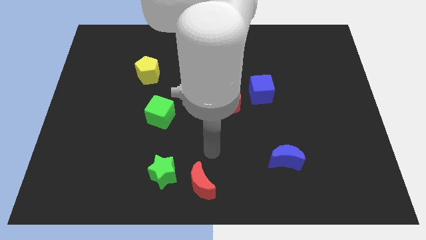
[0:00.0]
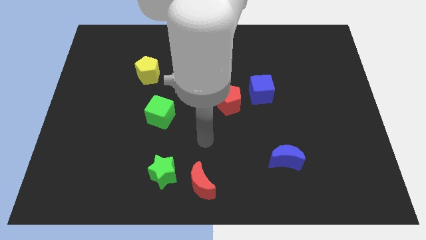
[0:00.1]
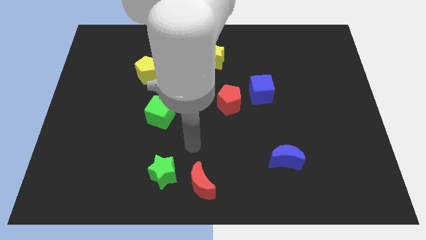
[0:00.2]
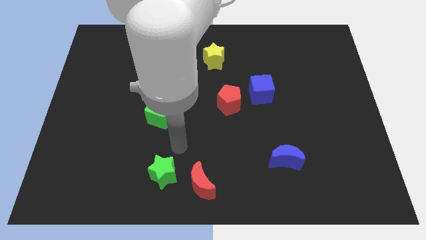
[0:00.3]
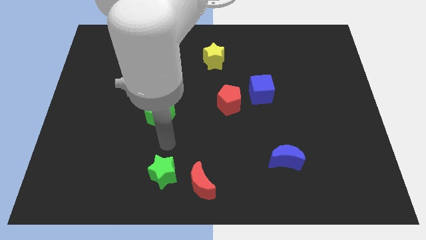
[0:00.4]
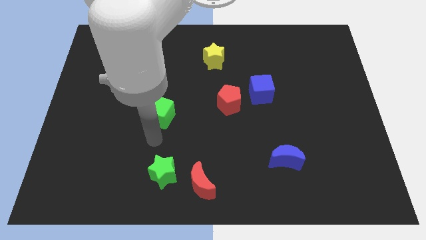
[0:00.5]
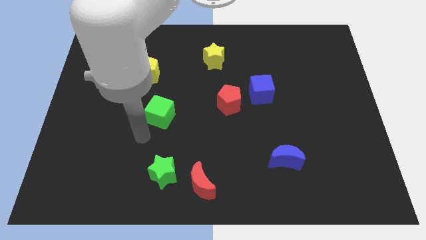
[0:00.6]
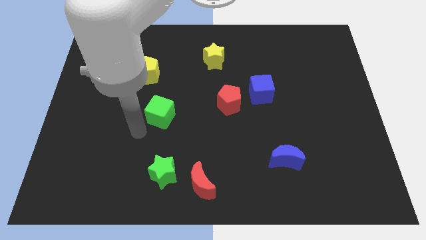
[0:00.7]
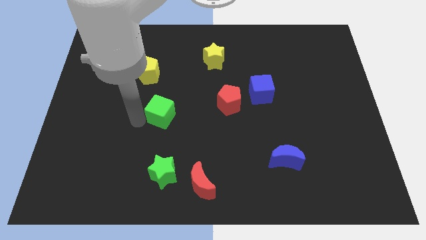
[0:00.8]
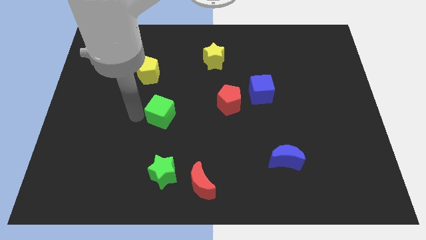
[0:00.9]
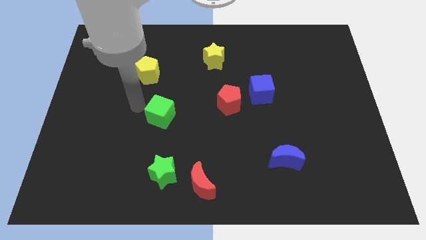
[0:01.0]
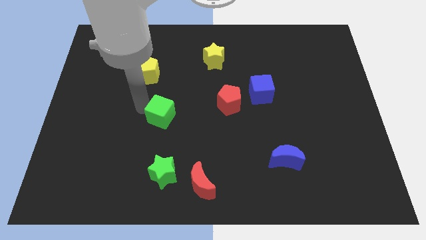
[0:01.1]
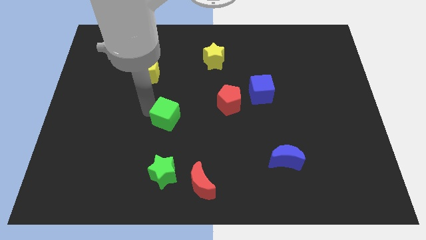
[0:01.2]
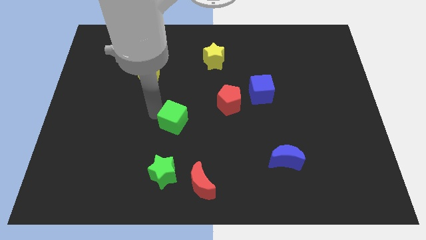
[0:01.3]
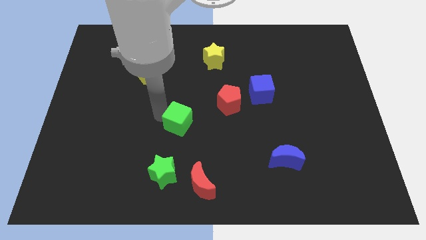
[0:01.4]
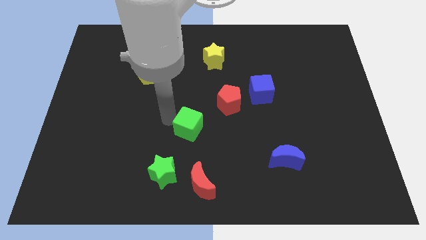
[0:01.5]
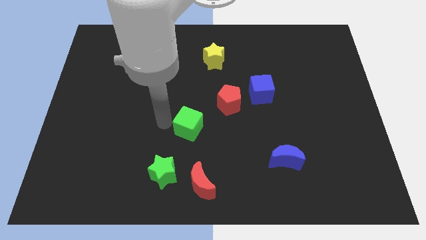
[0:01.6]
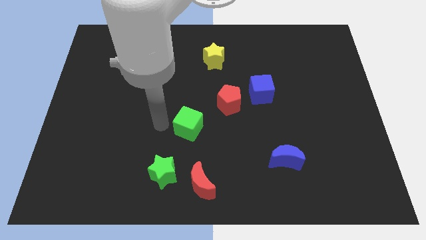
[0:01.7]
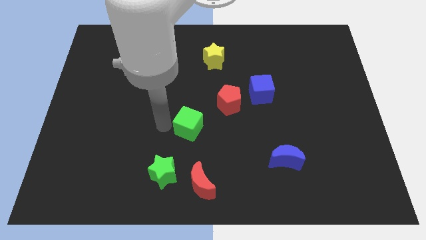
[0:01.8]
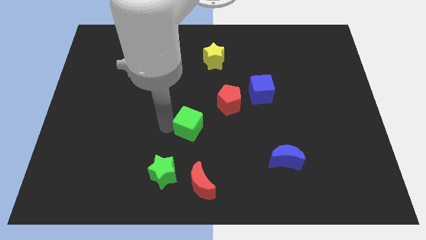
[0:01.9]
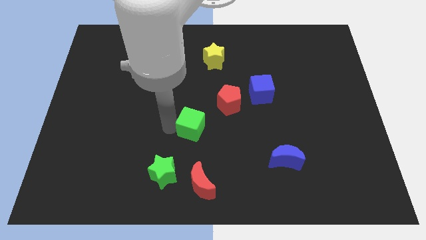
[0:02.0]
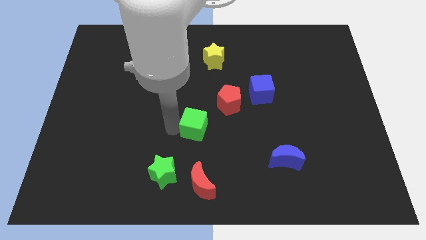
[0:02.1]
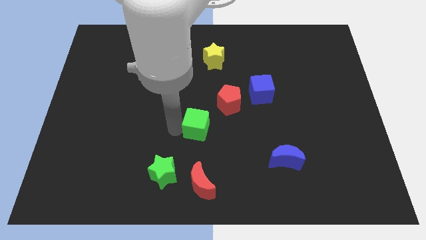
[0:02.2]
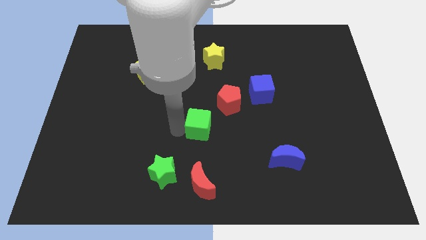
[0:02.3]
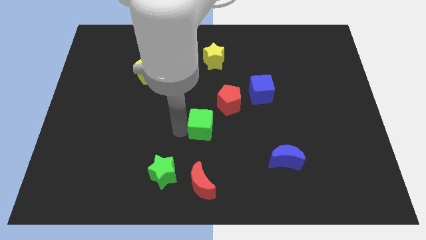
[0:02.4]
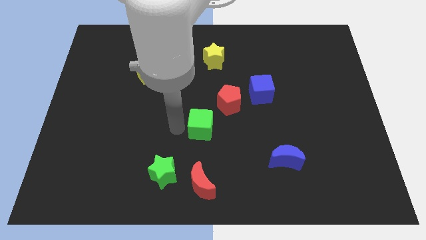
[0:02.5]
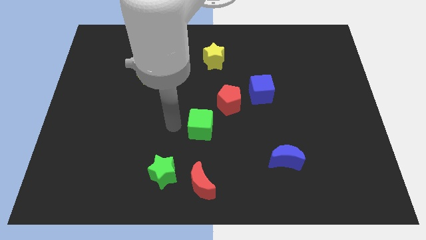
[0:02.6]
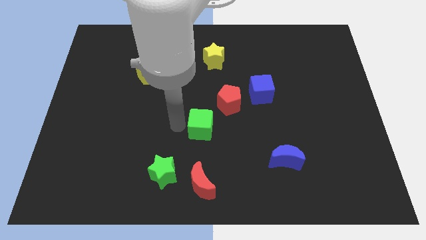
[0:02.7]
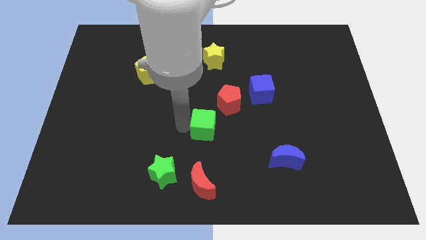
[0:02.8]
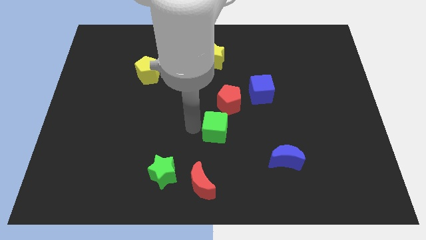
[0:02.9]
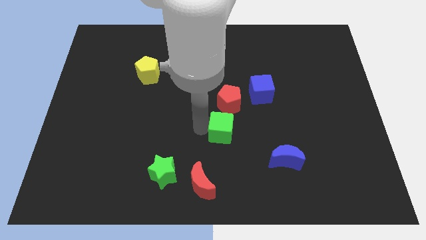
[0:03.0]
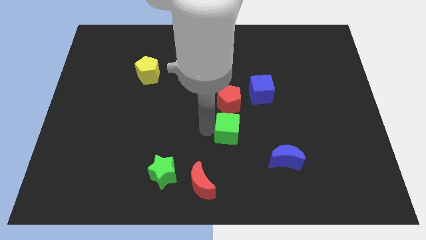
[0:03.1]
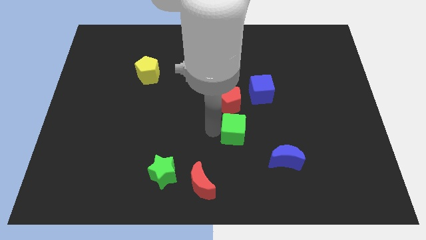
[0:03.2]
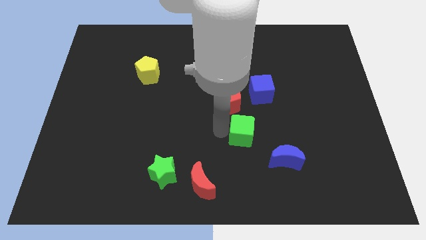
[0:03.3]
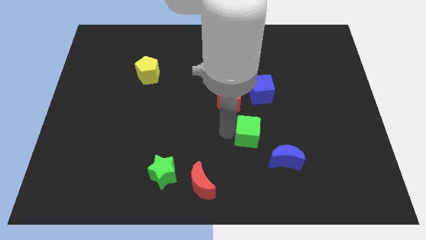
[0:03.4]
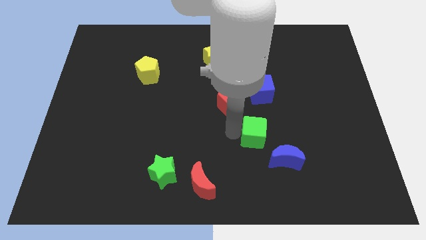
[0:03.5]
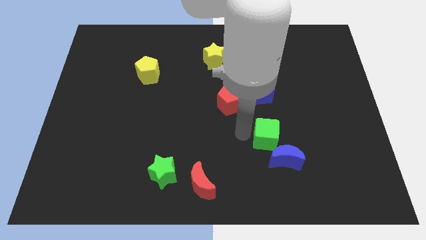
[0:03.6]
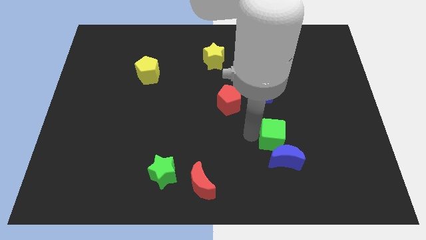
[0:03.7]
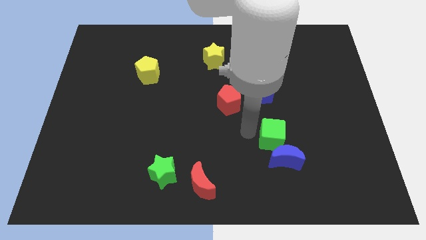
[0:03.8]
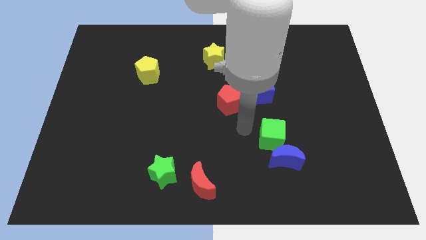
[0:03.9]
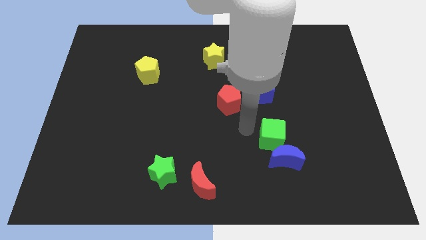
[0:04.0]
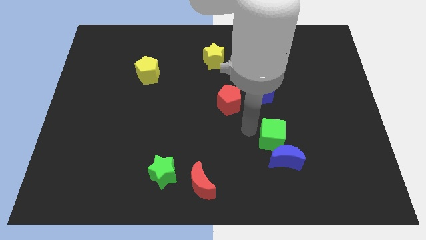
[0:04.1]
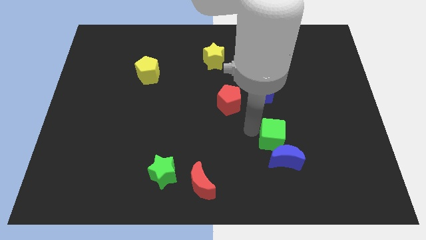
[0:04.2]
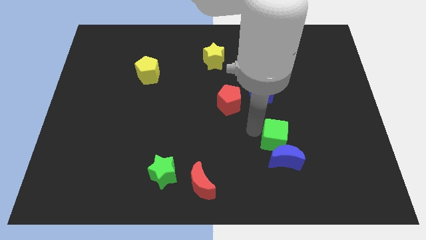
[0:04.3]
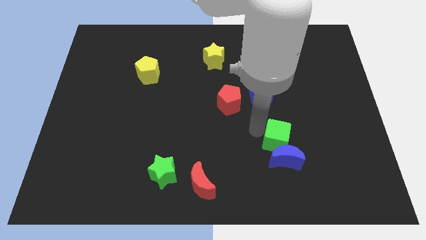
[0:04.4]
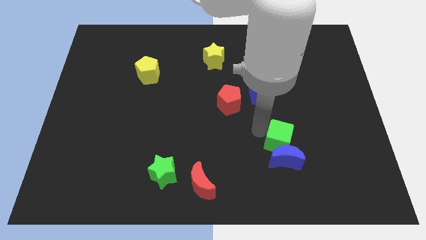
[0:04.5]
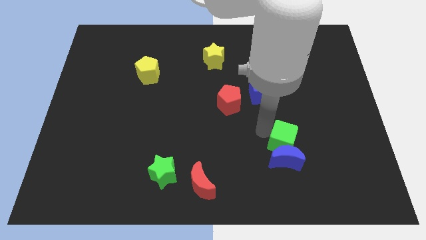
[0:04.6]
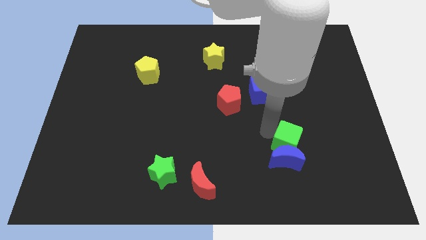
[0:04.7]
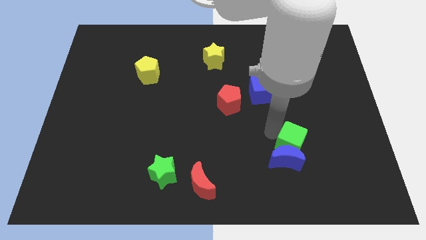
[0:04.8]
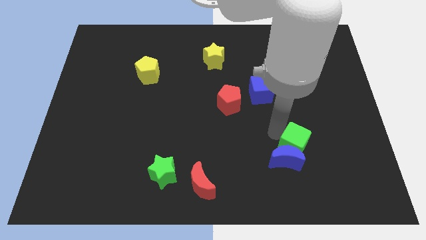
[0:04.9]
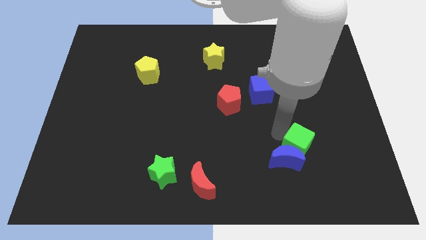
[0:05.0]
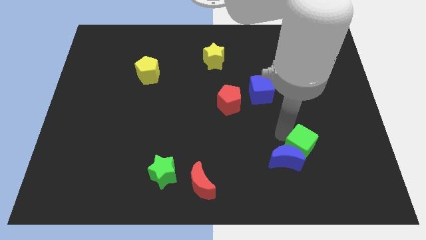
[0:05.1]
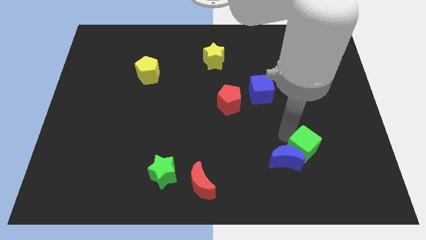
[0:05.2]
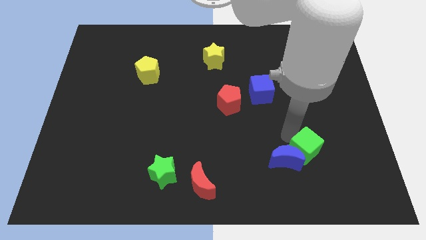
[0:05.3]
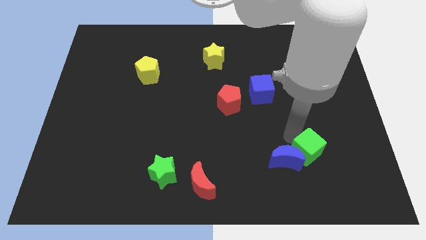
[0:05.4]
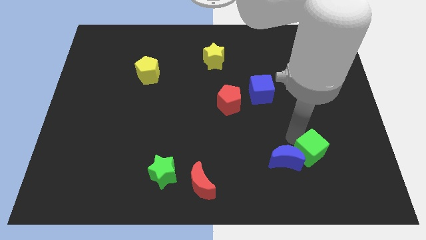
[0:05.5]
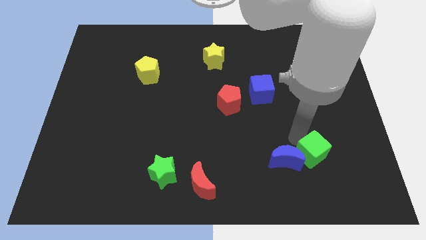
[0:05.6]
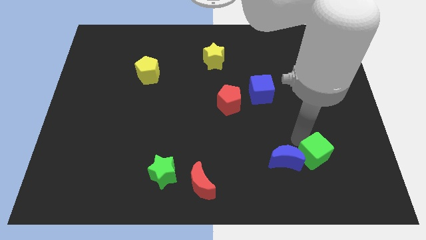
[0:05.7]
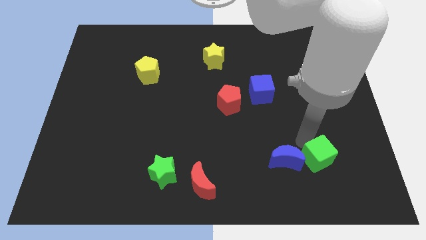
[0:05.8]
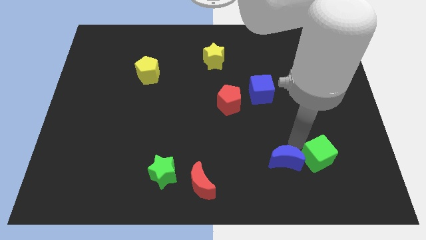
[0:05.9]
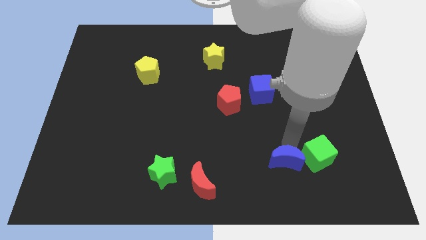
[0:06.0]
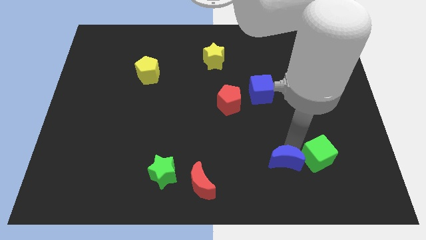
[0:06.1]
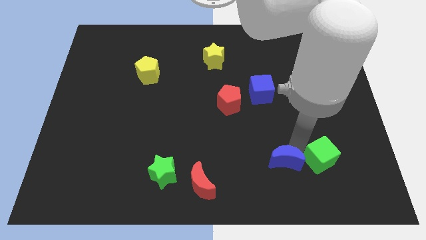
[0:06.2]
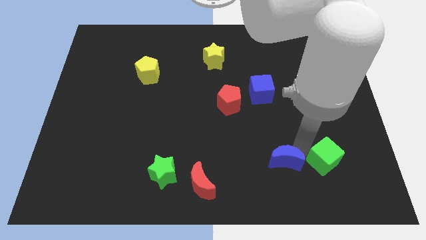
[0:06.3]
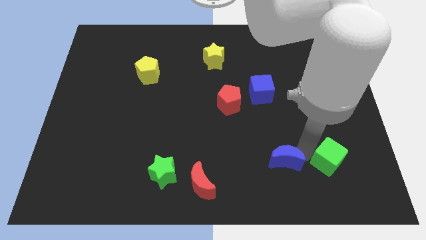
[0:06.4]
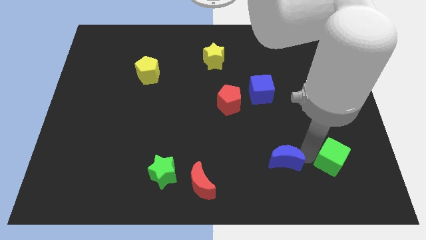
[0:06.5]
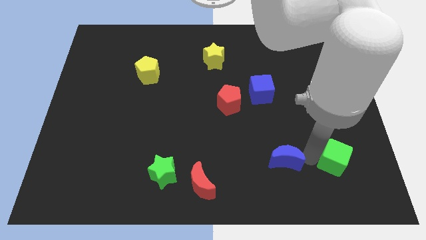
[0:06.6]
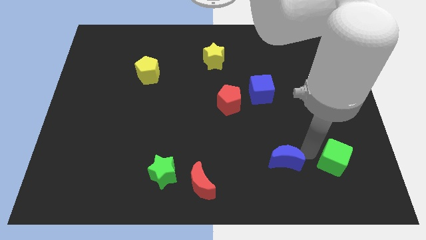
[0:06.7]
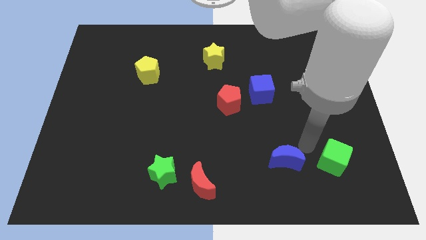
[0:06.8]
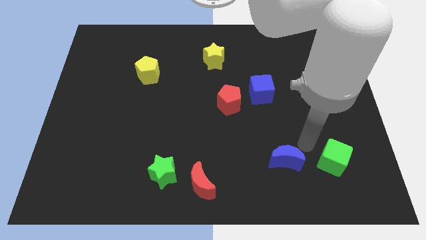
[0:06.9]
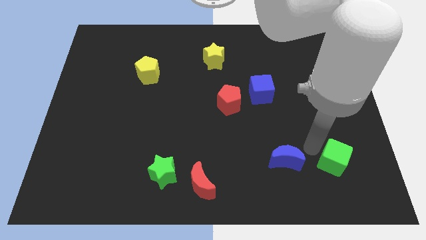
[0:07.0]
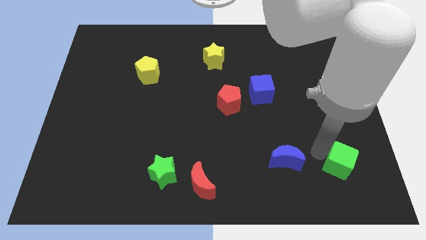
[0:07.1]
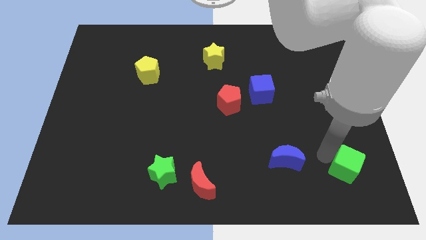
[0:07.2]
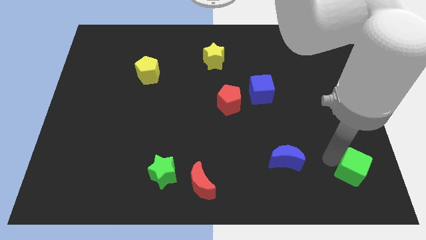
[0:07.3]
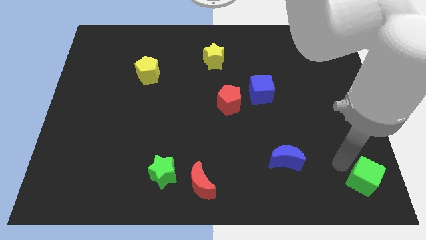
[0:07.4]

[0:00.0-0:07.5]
move the green cube to the bottom right
